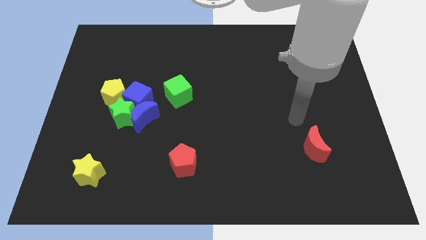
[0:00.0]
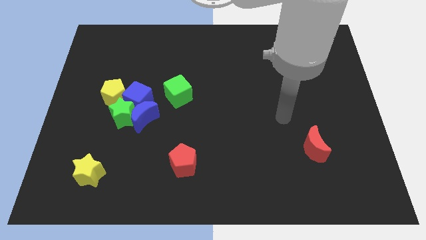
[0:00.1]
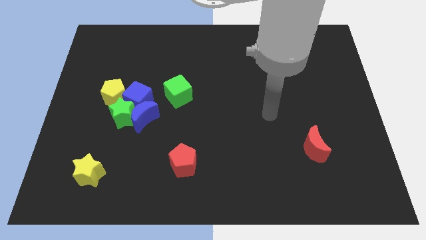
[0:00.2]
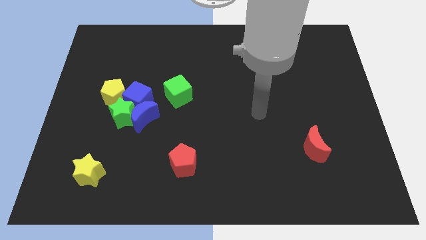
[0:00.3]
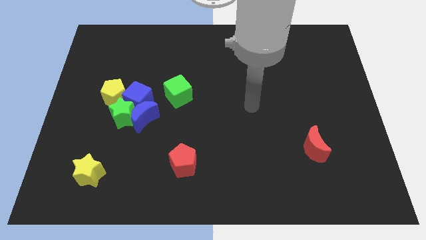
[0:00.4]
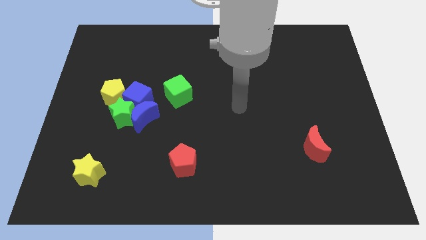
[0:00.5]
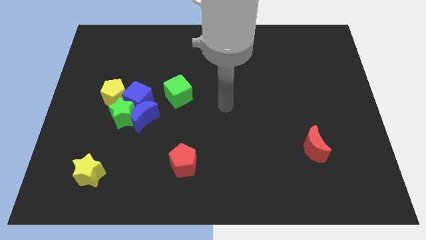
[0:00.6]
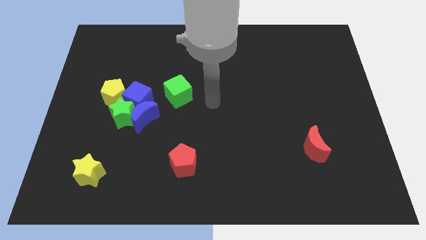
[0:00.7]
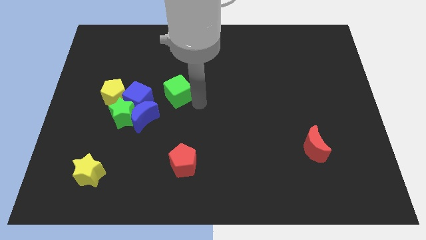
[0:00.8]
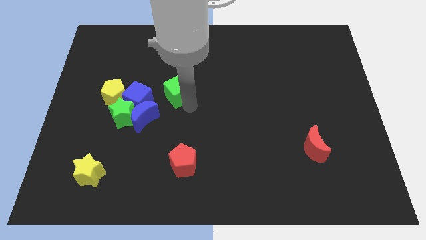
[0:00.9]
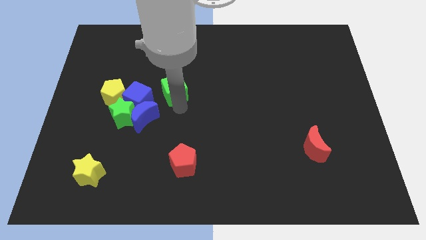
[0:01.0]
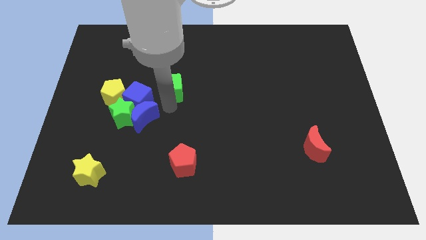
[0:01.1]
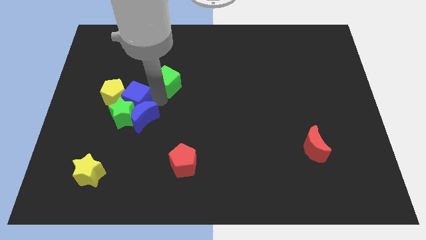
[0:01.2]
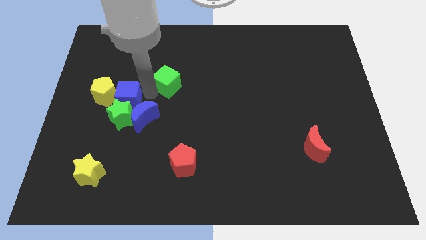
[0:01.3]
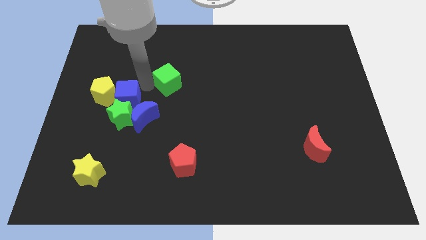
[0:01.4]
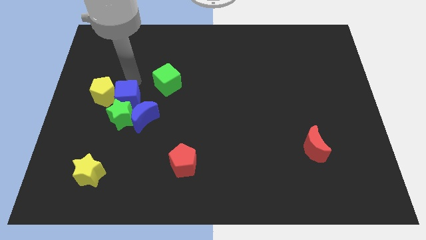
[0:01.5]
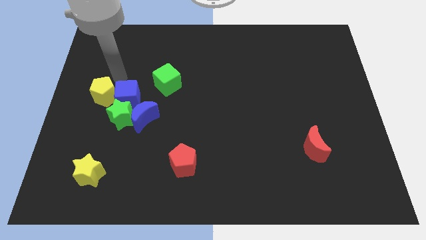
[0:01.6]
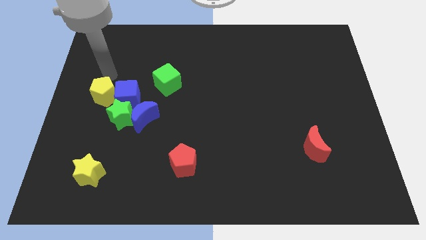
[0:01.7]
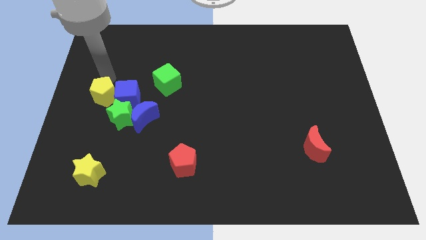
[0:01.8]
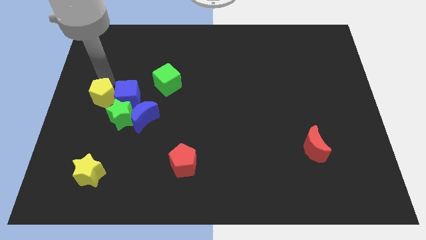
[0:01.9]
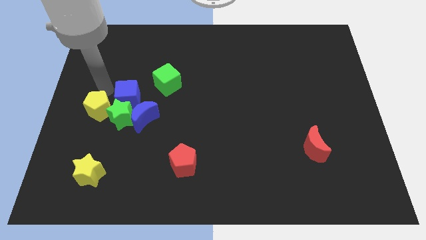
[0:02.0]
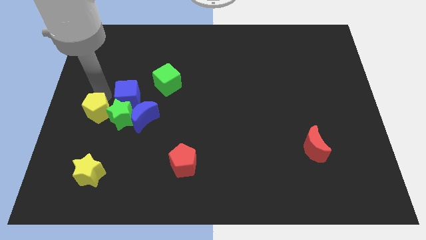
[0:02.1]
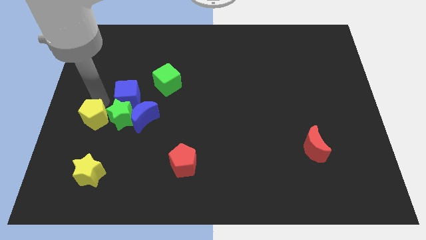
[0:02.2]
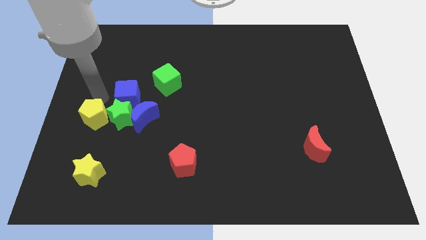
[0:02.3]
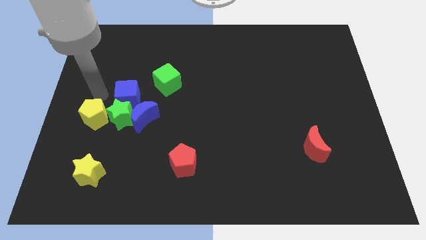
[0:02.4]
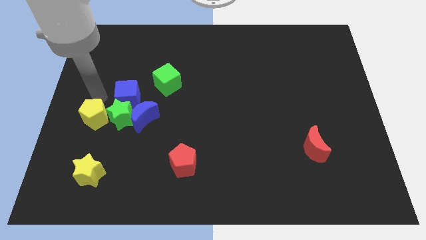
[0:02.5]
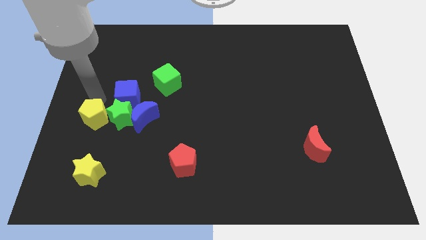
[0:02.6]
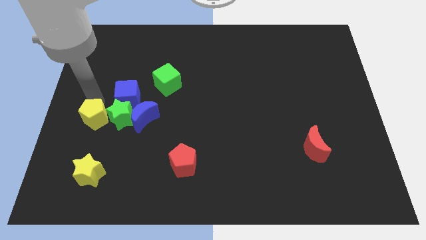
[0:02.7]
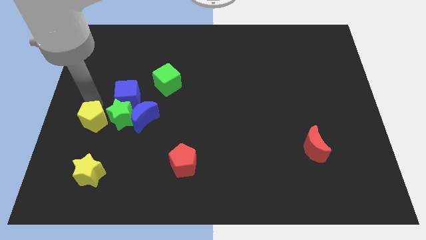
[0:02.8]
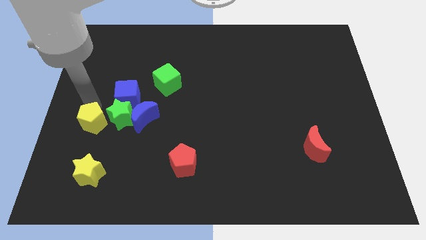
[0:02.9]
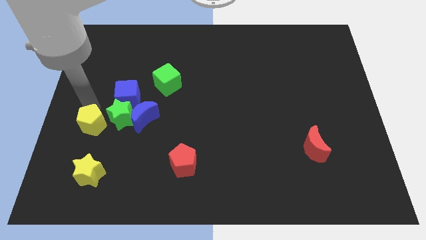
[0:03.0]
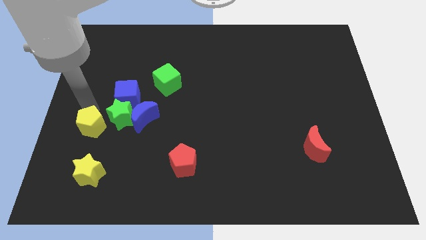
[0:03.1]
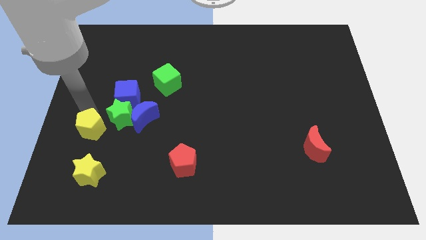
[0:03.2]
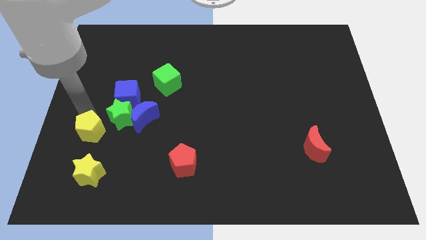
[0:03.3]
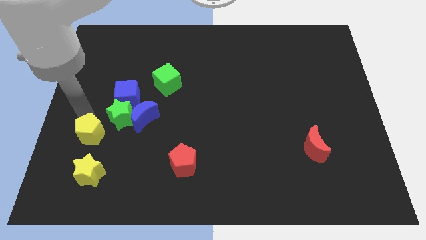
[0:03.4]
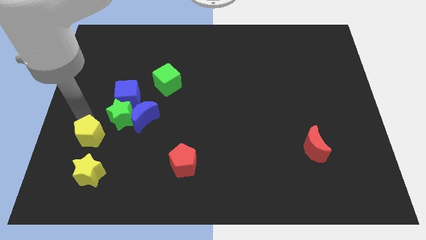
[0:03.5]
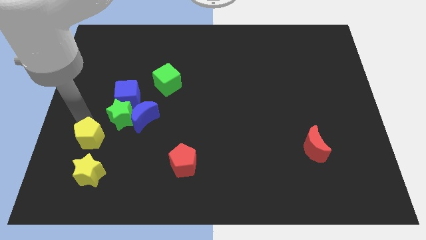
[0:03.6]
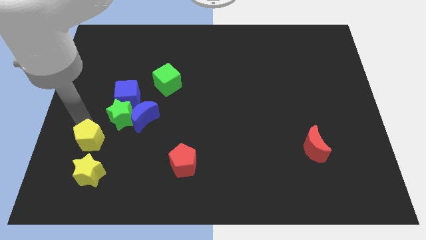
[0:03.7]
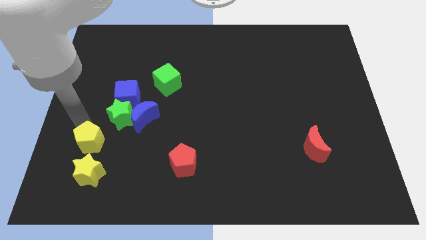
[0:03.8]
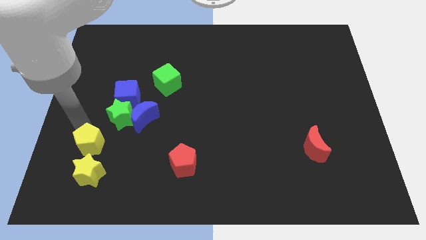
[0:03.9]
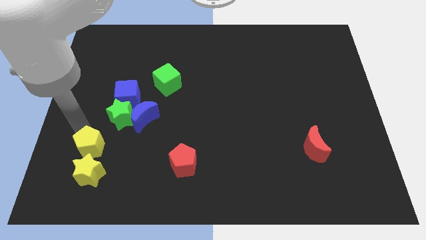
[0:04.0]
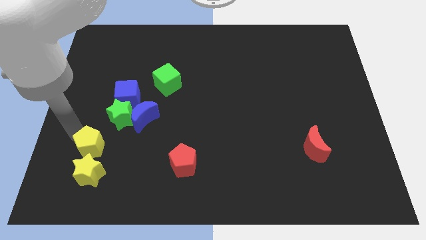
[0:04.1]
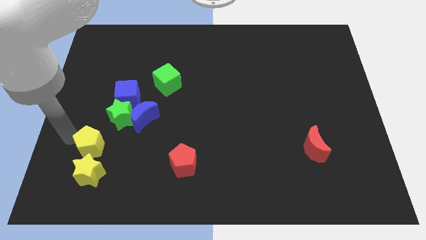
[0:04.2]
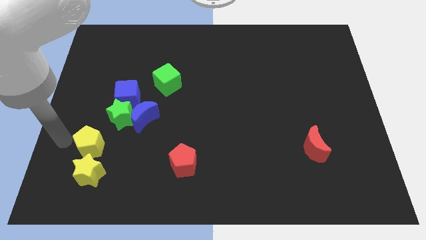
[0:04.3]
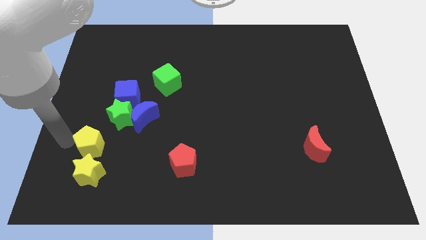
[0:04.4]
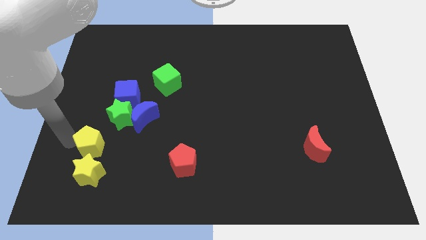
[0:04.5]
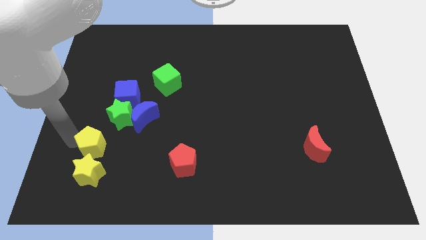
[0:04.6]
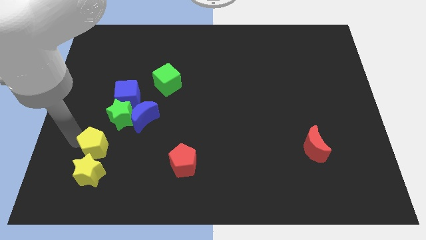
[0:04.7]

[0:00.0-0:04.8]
slide the yellow pentagon diagonally up and to the right of the yellow star

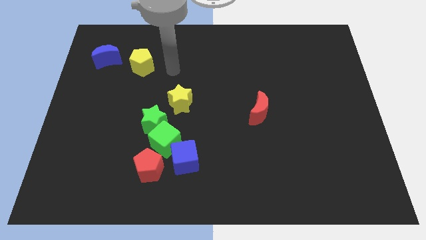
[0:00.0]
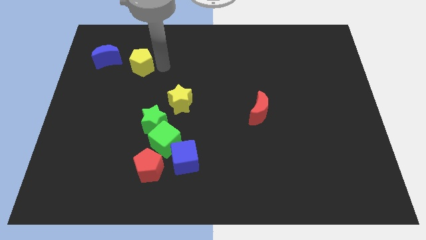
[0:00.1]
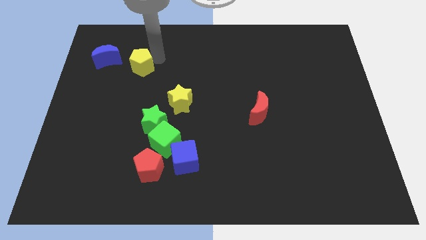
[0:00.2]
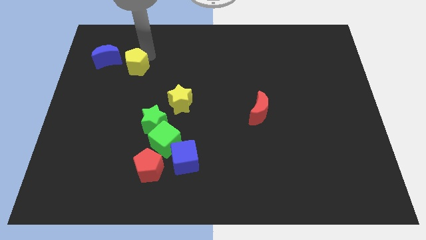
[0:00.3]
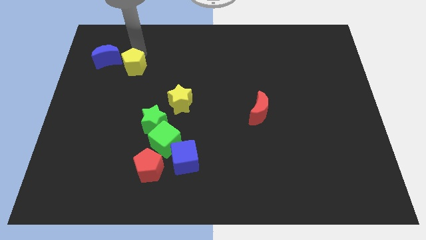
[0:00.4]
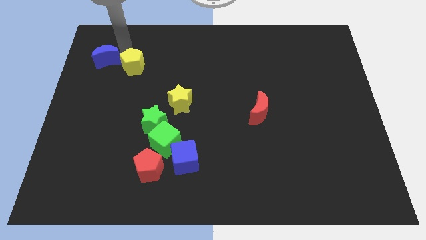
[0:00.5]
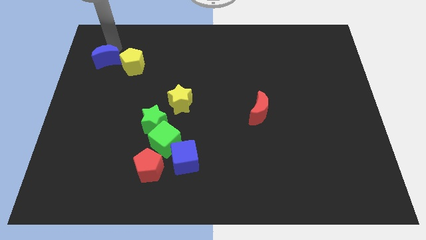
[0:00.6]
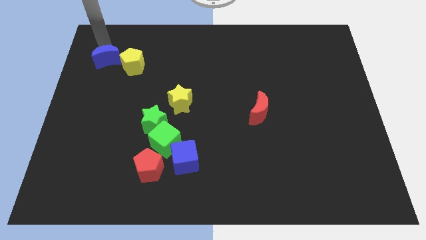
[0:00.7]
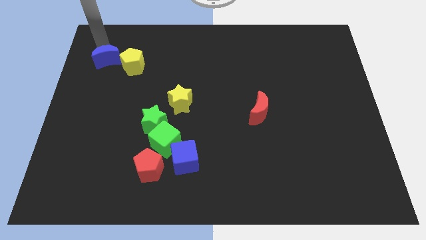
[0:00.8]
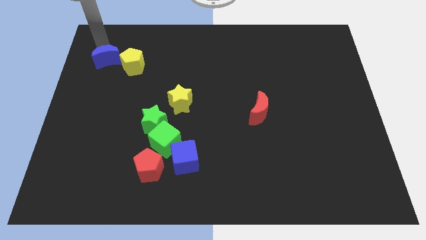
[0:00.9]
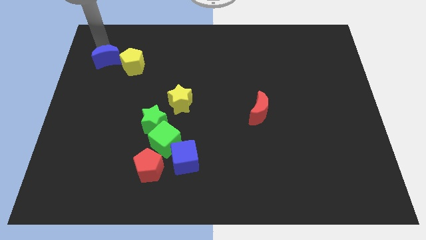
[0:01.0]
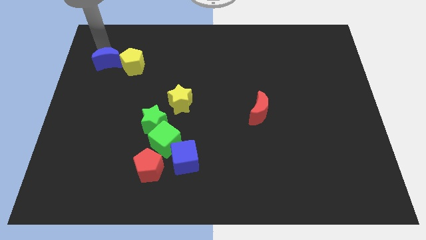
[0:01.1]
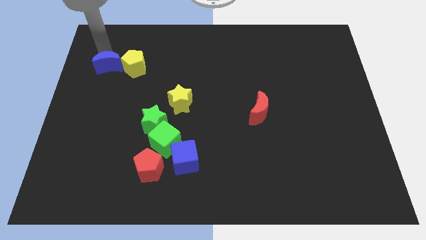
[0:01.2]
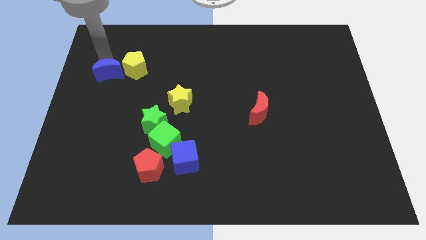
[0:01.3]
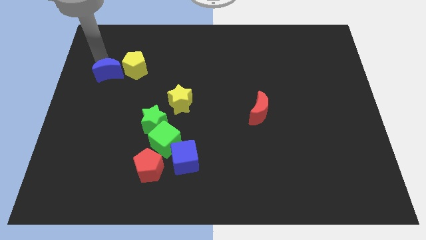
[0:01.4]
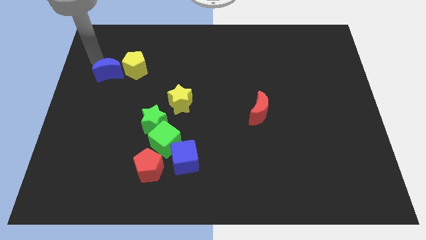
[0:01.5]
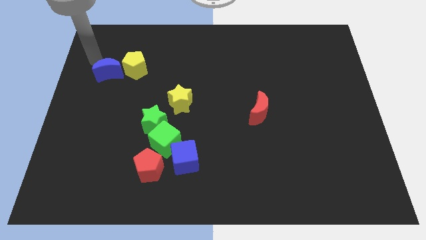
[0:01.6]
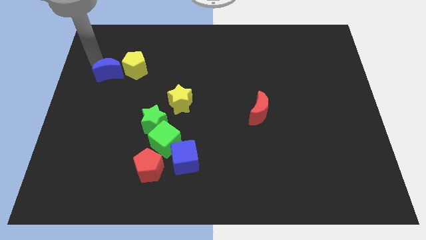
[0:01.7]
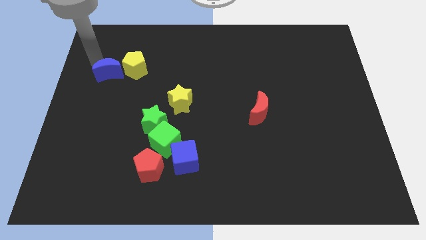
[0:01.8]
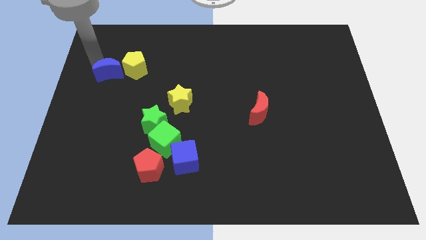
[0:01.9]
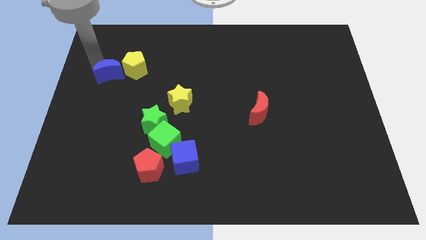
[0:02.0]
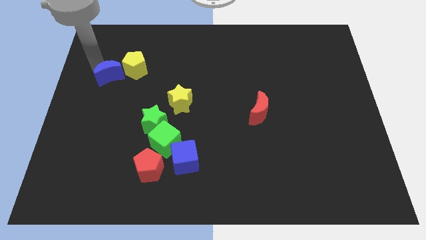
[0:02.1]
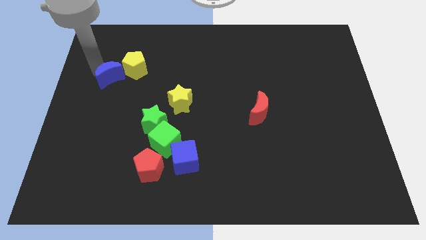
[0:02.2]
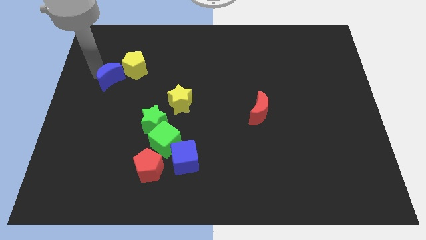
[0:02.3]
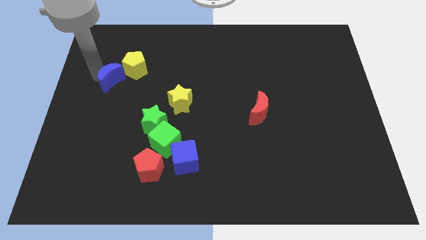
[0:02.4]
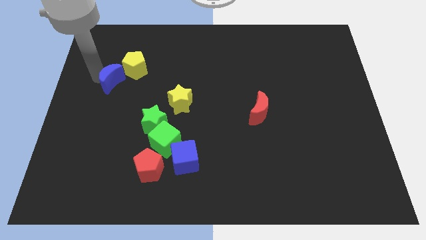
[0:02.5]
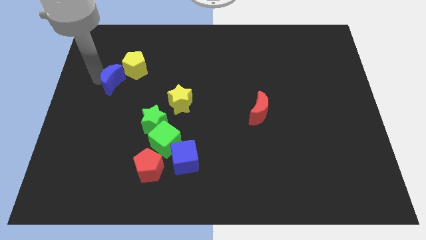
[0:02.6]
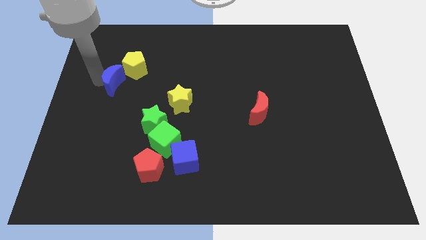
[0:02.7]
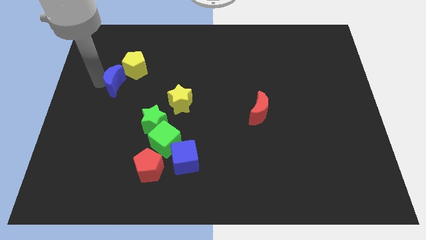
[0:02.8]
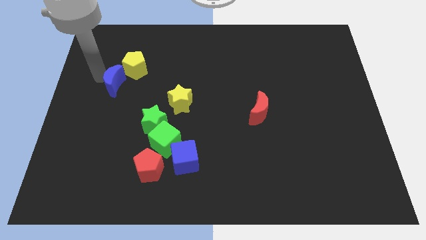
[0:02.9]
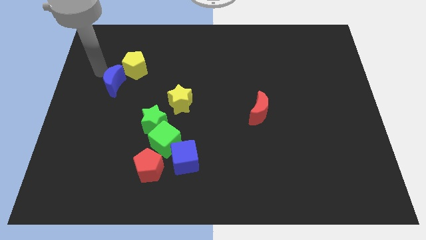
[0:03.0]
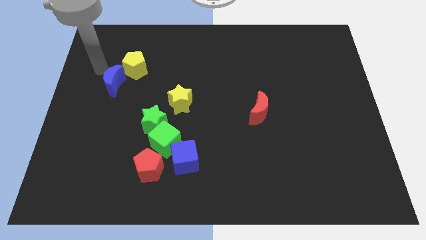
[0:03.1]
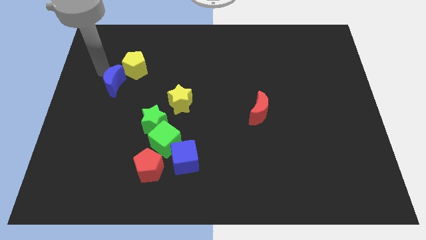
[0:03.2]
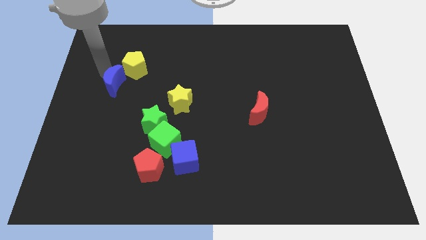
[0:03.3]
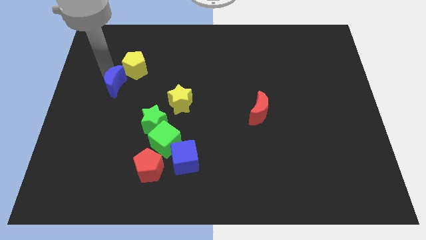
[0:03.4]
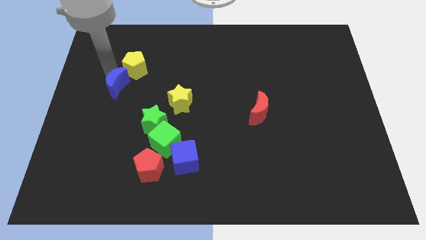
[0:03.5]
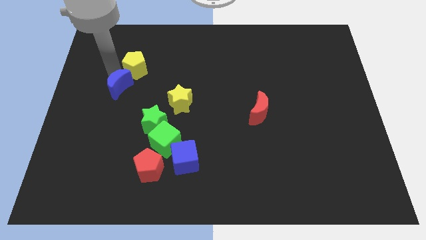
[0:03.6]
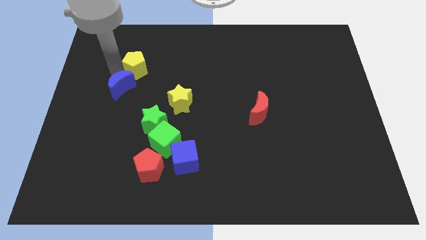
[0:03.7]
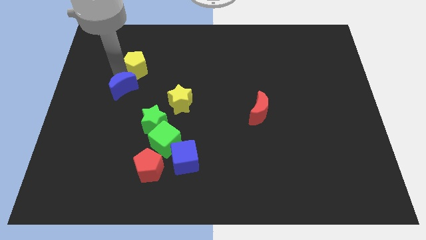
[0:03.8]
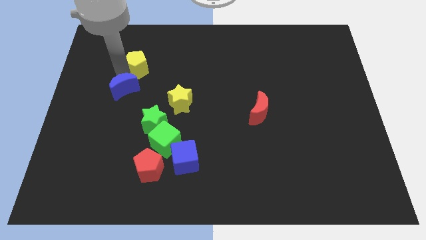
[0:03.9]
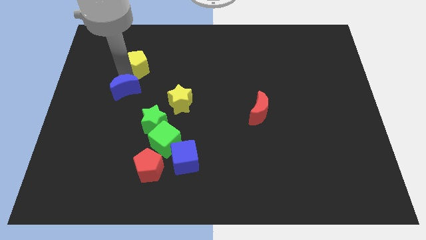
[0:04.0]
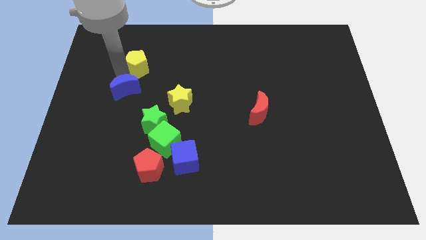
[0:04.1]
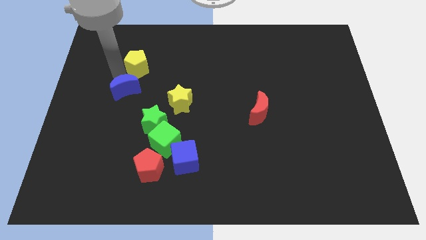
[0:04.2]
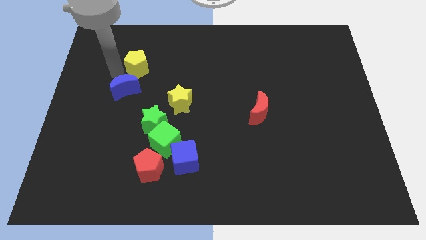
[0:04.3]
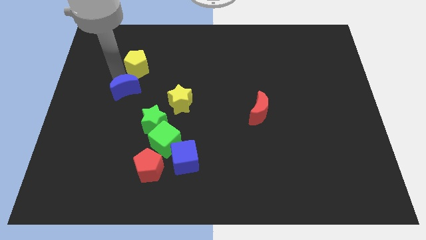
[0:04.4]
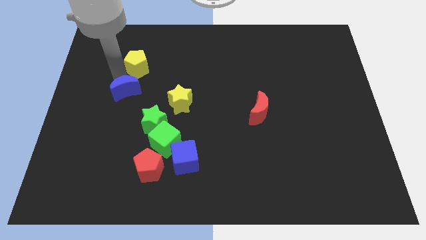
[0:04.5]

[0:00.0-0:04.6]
slide the blue moon diagonally up and to the left of the green star
